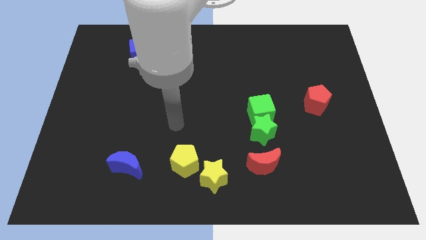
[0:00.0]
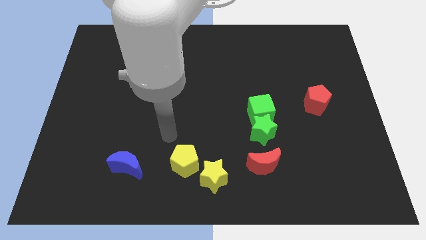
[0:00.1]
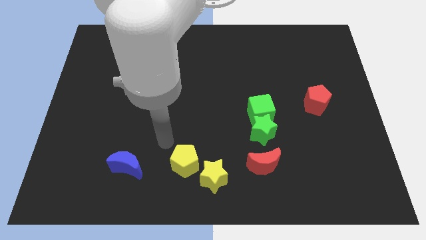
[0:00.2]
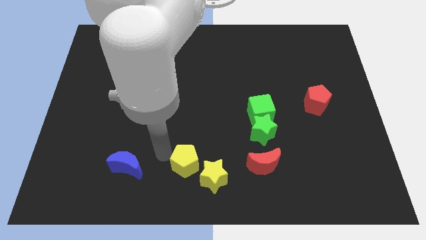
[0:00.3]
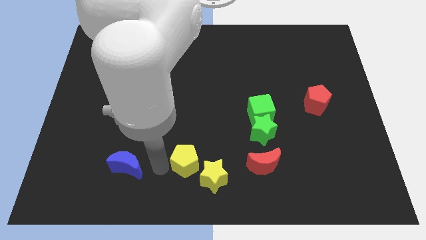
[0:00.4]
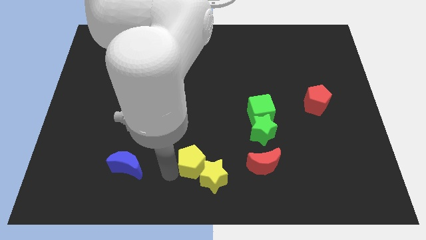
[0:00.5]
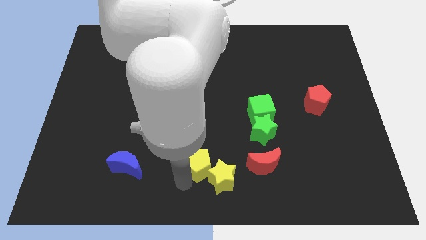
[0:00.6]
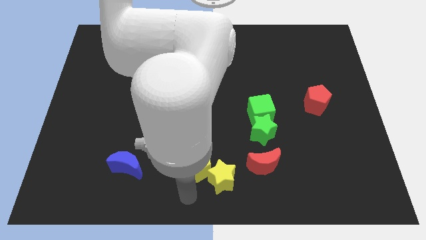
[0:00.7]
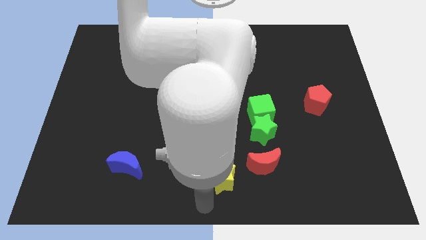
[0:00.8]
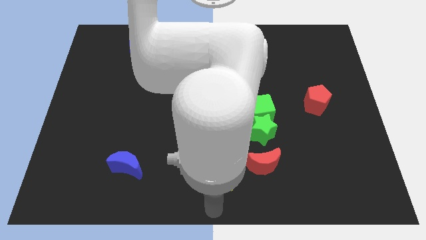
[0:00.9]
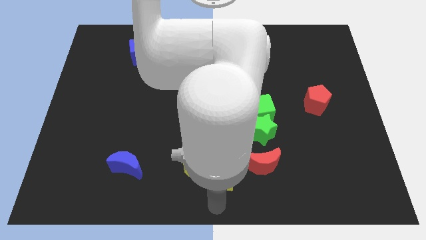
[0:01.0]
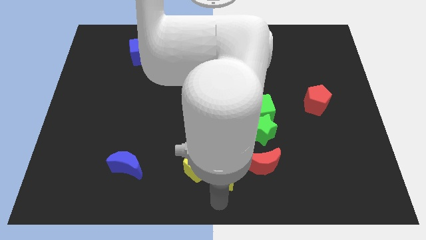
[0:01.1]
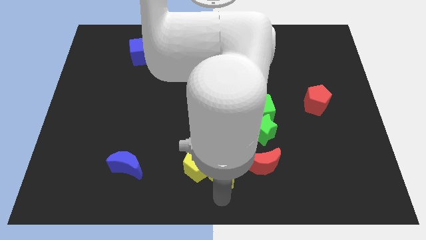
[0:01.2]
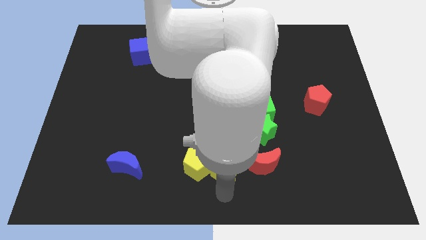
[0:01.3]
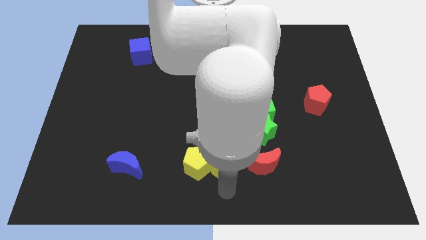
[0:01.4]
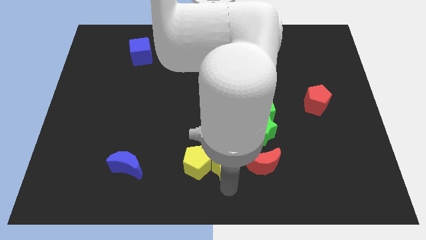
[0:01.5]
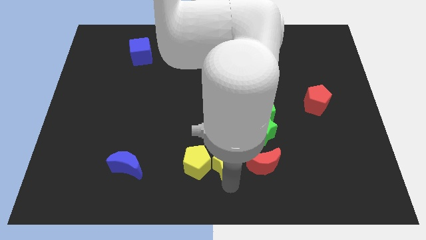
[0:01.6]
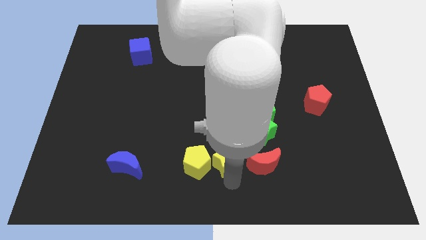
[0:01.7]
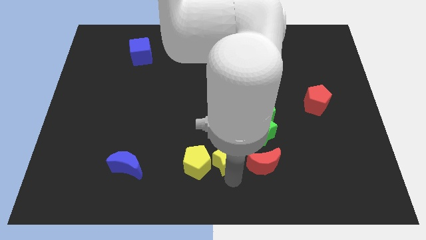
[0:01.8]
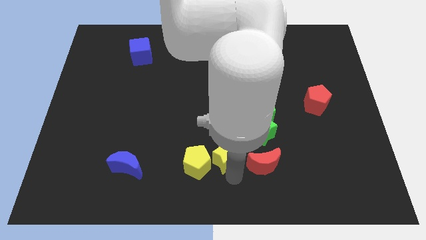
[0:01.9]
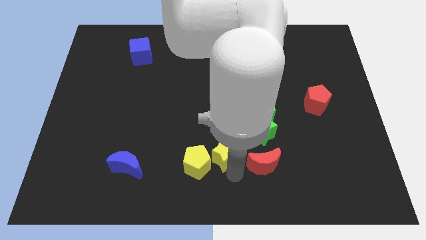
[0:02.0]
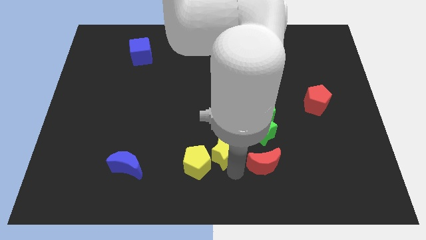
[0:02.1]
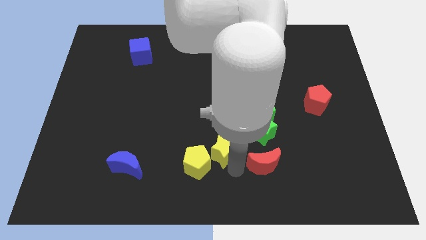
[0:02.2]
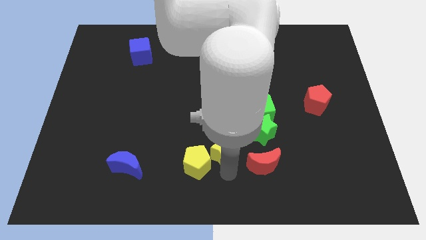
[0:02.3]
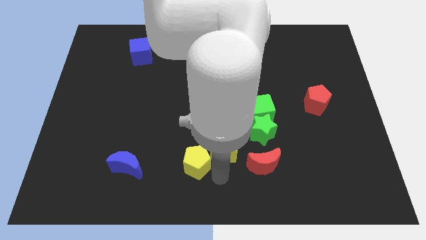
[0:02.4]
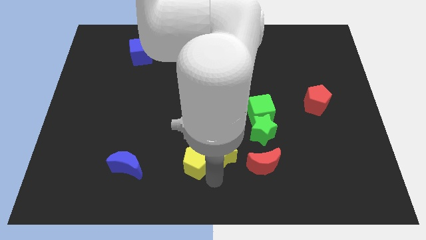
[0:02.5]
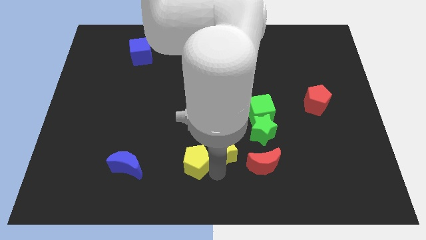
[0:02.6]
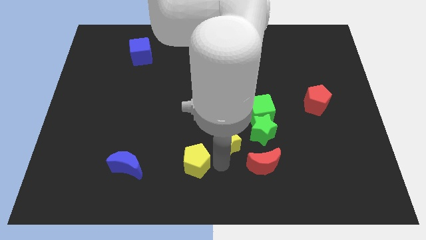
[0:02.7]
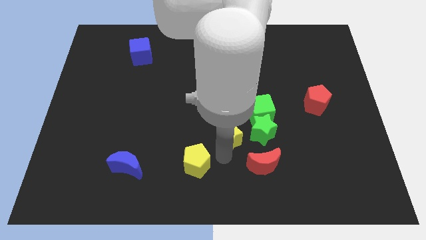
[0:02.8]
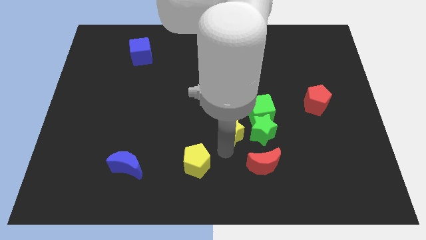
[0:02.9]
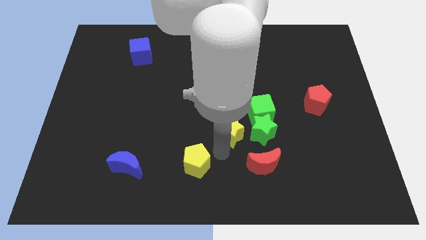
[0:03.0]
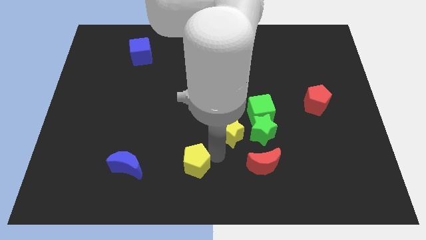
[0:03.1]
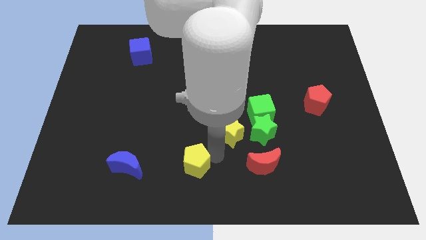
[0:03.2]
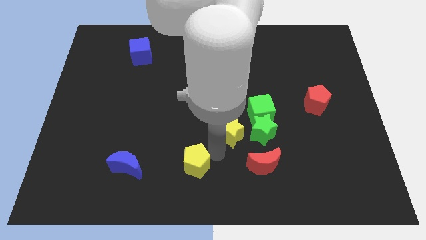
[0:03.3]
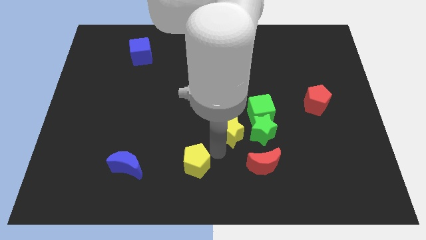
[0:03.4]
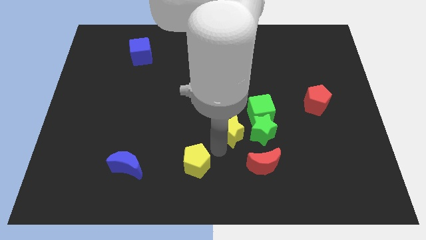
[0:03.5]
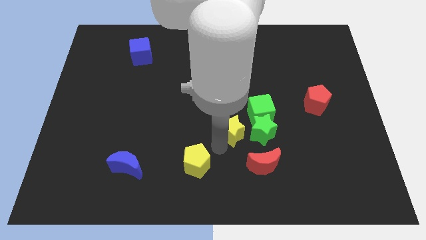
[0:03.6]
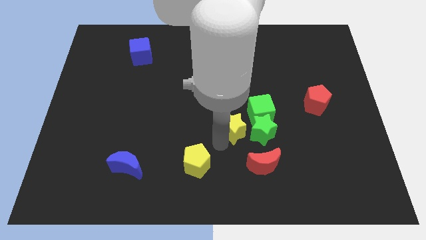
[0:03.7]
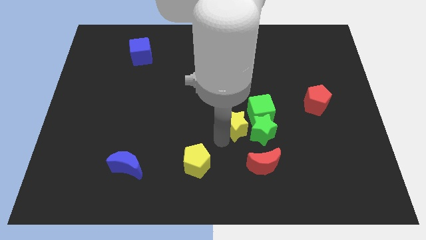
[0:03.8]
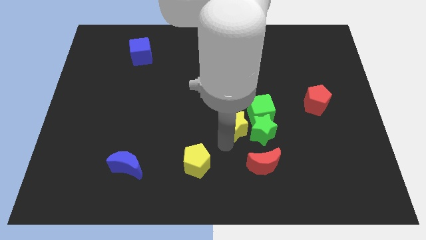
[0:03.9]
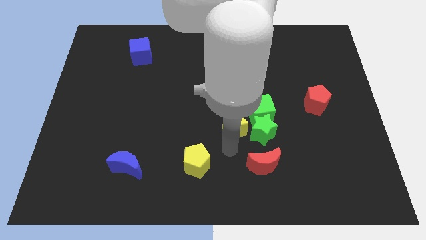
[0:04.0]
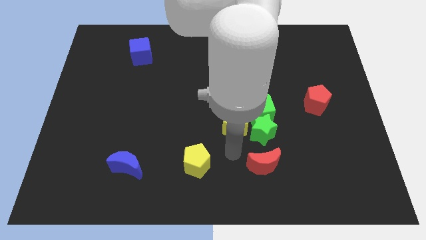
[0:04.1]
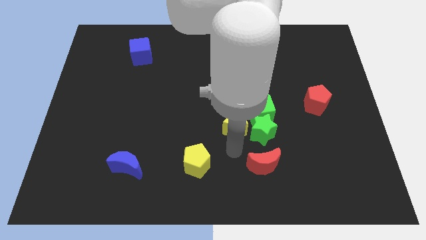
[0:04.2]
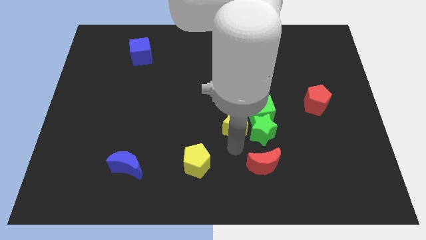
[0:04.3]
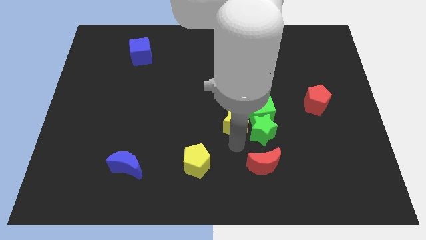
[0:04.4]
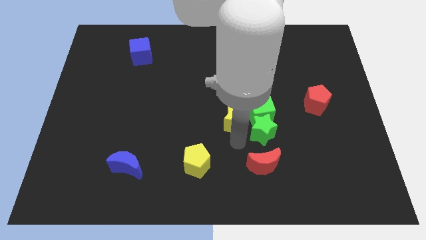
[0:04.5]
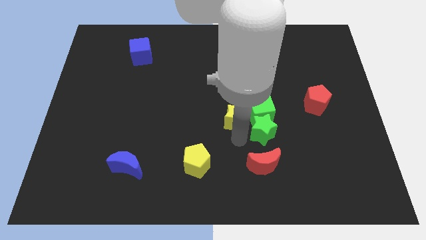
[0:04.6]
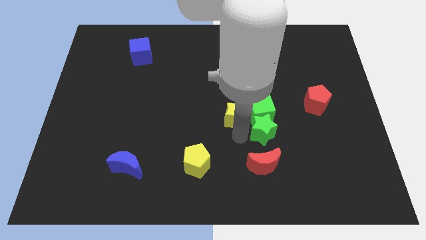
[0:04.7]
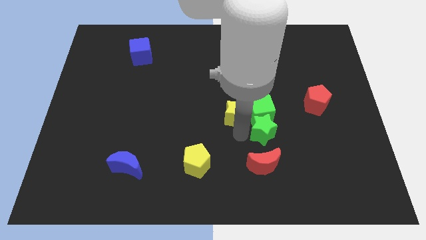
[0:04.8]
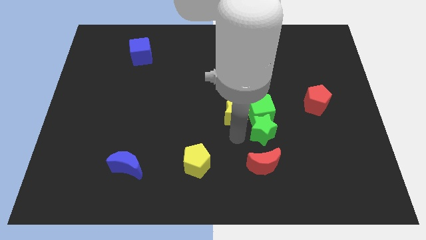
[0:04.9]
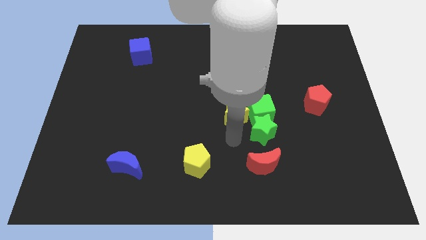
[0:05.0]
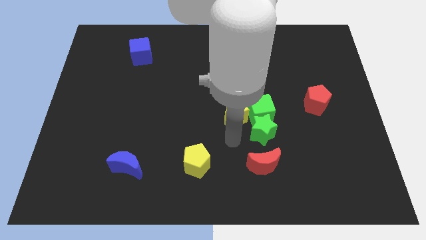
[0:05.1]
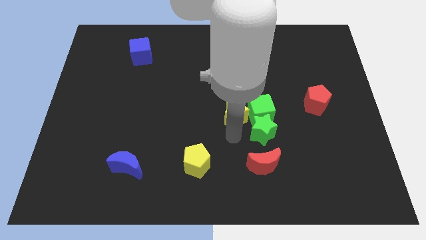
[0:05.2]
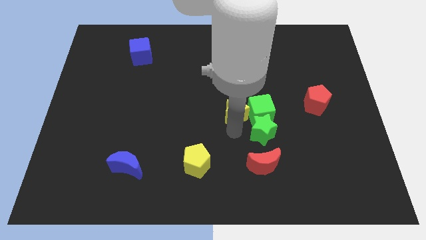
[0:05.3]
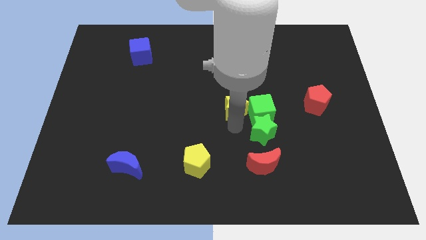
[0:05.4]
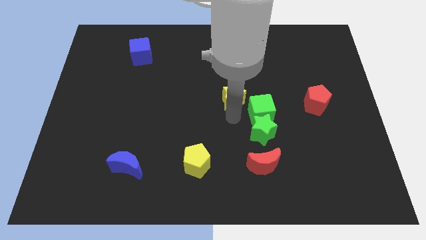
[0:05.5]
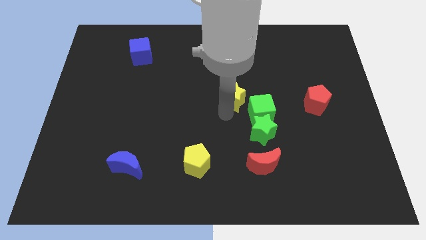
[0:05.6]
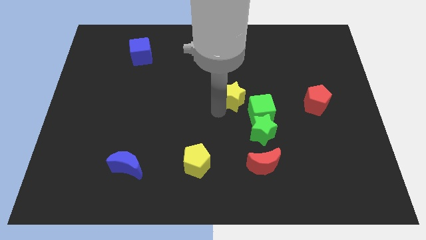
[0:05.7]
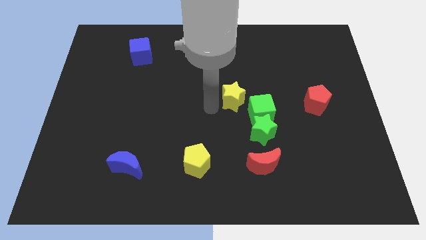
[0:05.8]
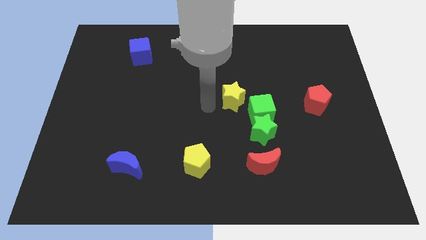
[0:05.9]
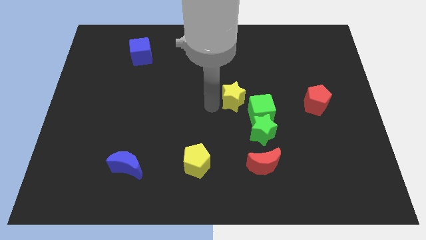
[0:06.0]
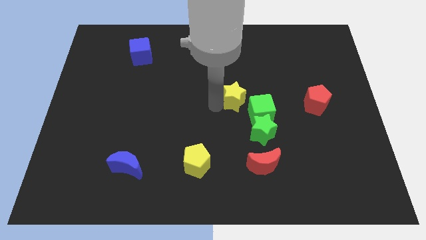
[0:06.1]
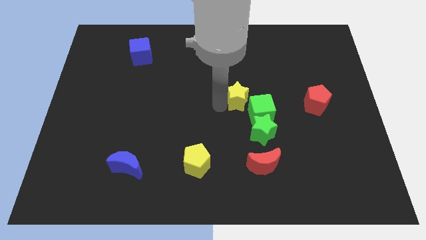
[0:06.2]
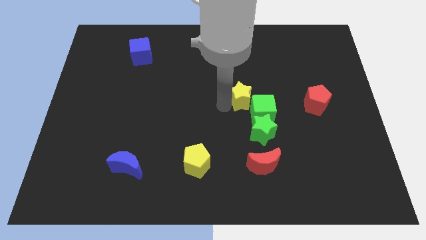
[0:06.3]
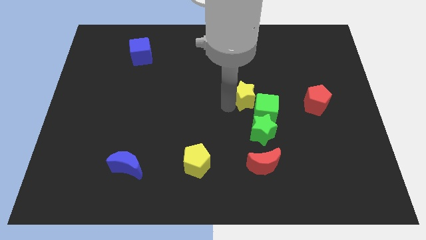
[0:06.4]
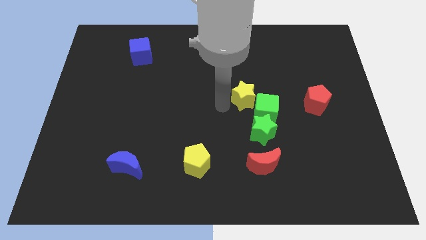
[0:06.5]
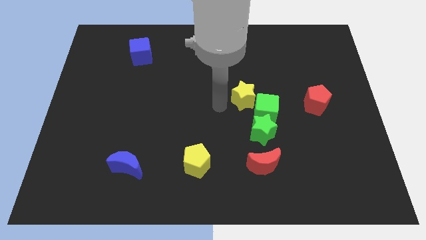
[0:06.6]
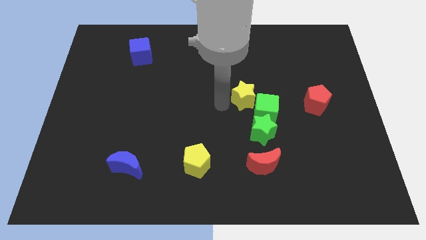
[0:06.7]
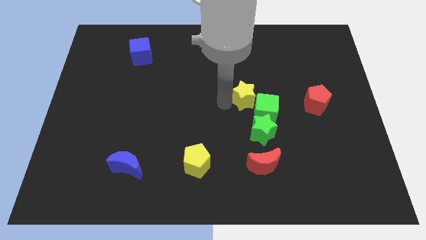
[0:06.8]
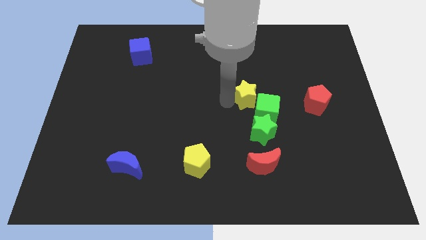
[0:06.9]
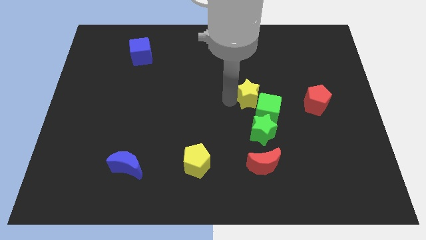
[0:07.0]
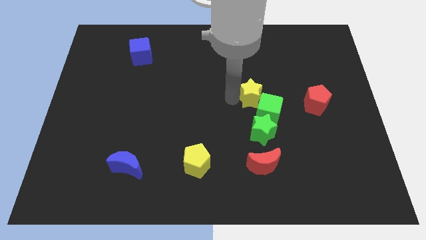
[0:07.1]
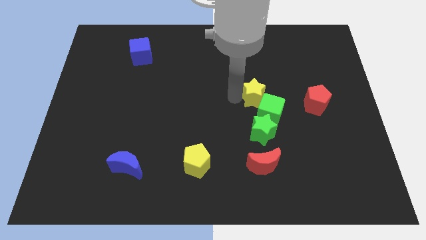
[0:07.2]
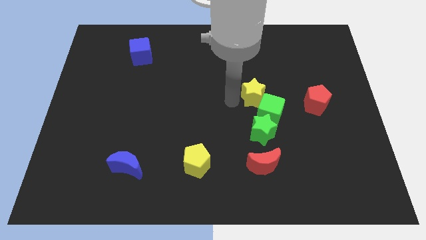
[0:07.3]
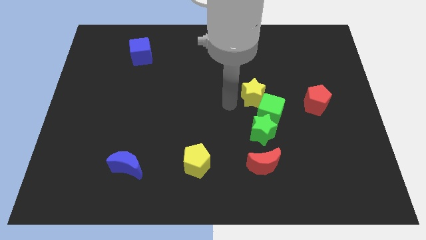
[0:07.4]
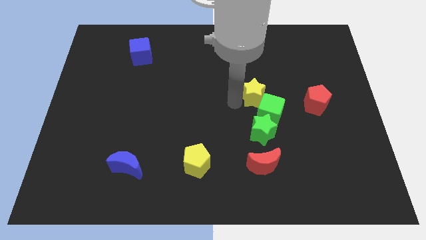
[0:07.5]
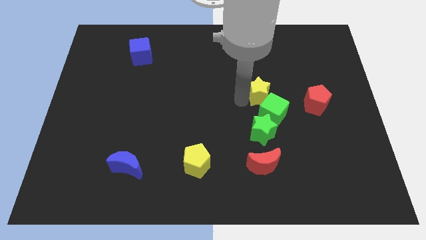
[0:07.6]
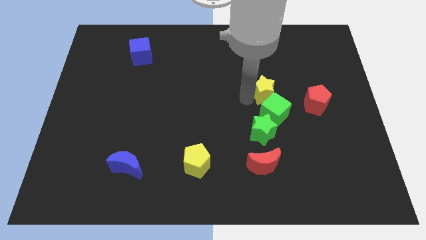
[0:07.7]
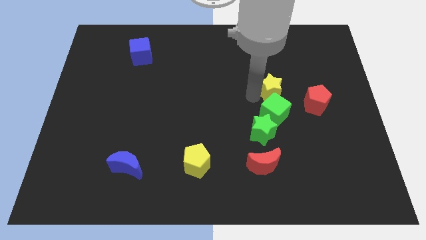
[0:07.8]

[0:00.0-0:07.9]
put the yellow star to the top left of the red pentagon
